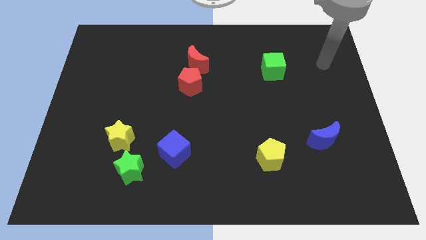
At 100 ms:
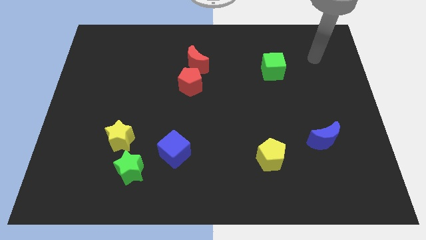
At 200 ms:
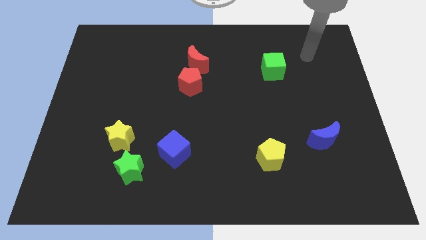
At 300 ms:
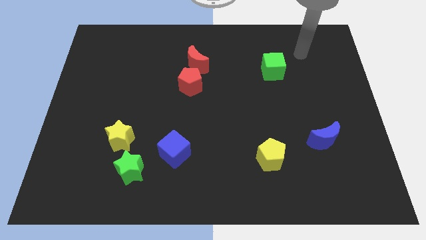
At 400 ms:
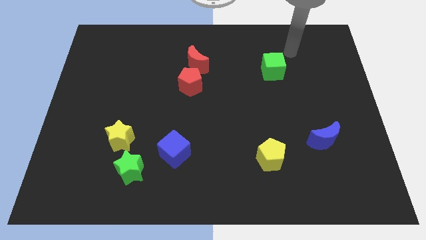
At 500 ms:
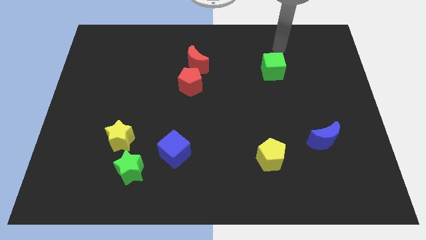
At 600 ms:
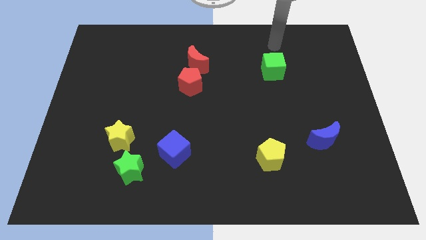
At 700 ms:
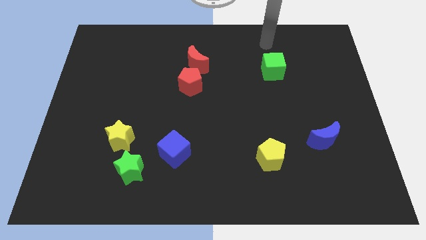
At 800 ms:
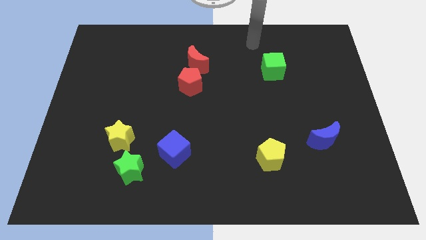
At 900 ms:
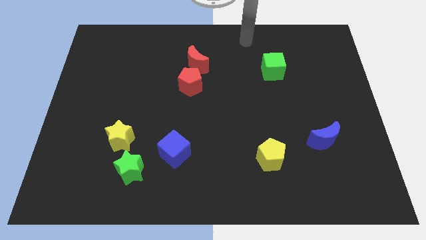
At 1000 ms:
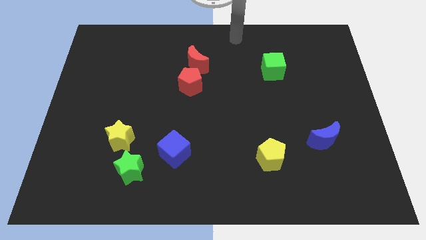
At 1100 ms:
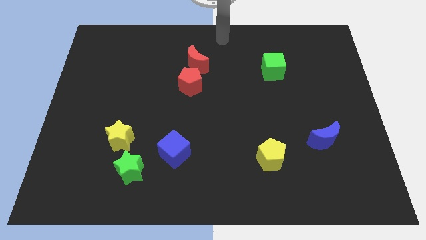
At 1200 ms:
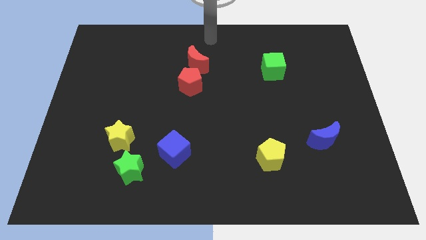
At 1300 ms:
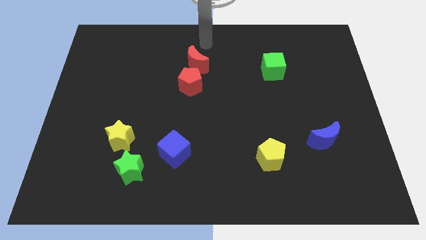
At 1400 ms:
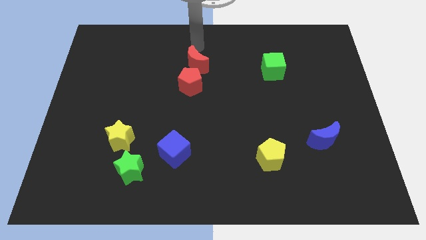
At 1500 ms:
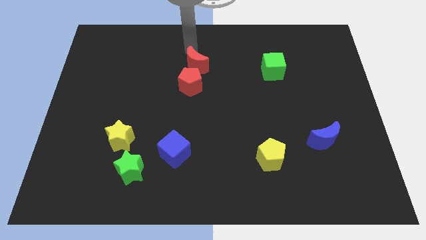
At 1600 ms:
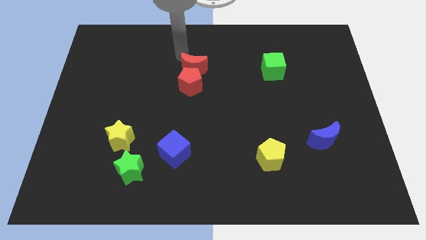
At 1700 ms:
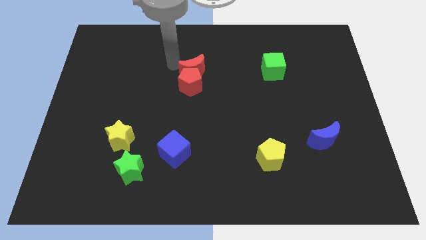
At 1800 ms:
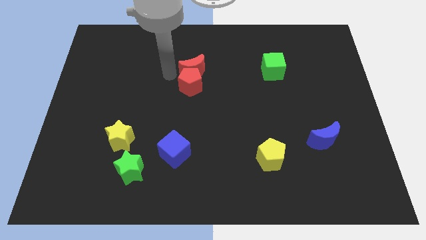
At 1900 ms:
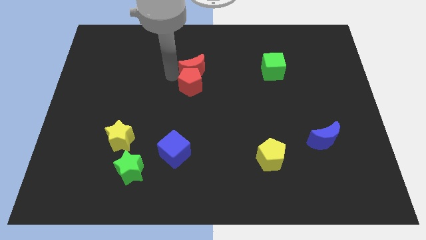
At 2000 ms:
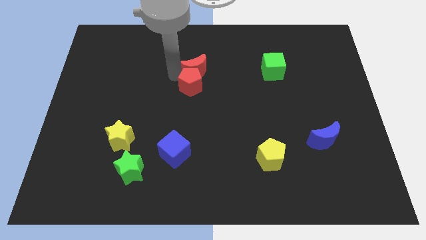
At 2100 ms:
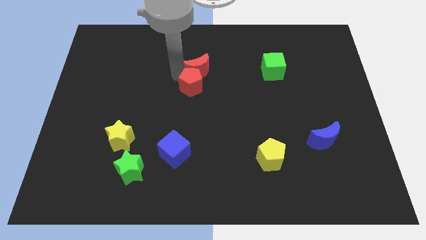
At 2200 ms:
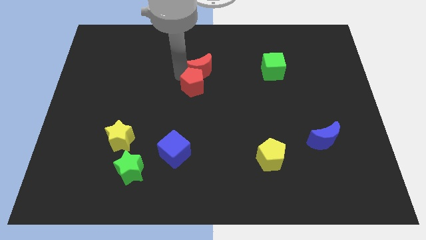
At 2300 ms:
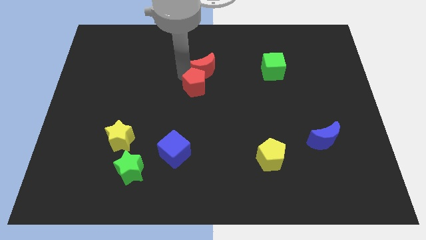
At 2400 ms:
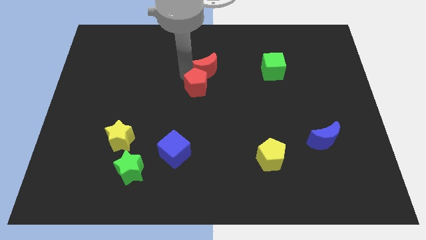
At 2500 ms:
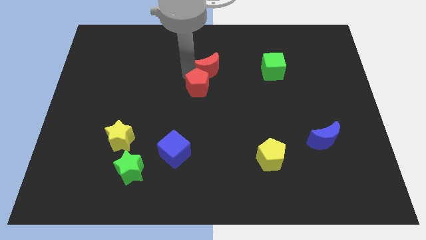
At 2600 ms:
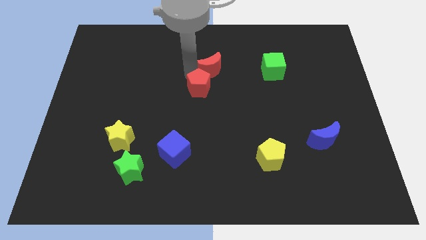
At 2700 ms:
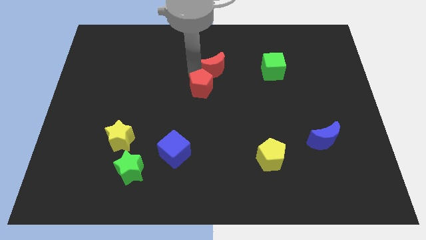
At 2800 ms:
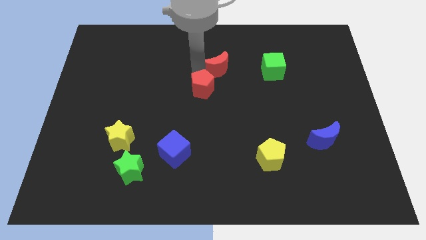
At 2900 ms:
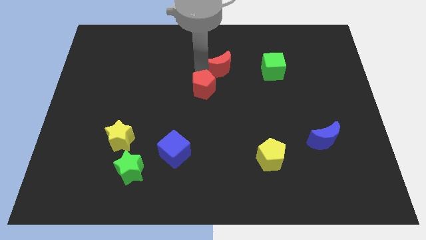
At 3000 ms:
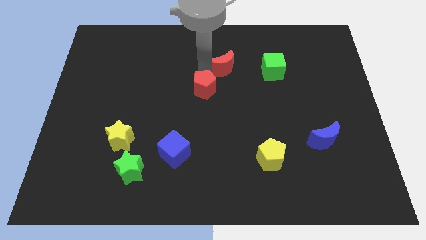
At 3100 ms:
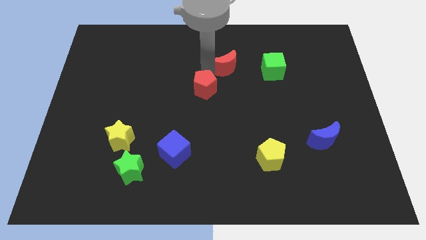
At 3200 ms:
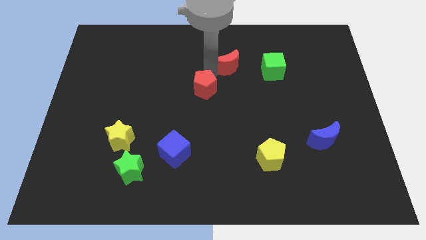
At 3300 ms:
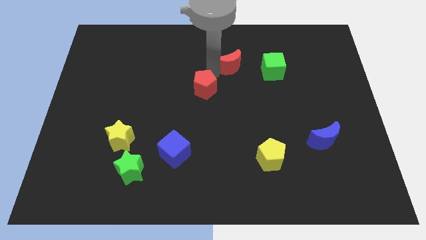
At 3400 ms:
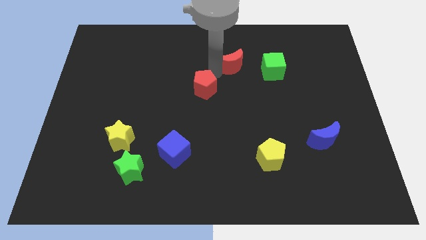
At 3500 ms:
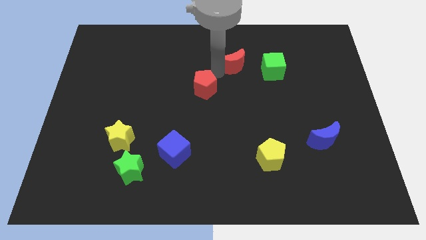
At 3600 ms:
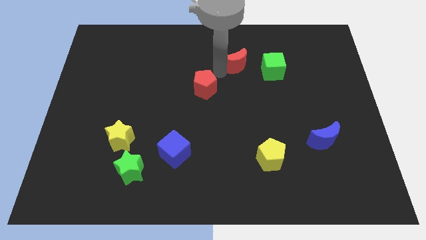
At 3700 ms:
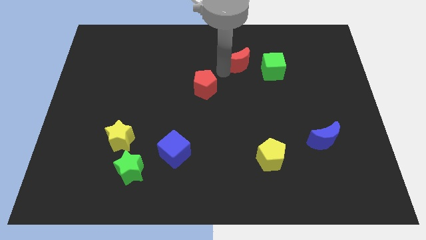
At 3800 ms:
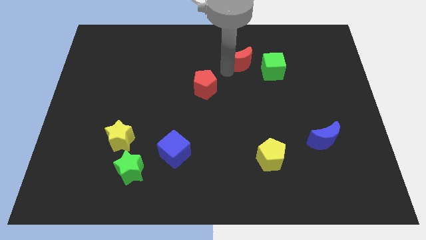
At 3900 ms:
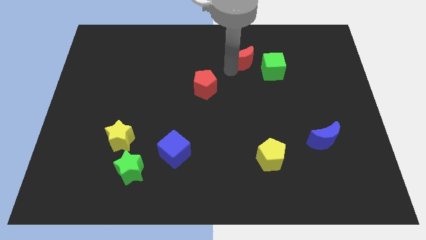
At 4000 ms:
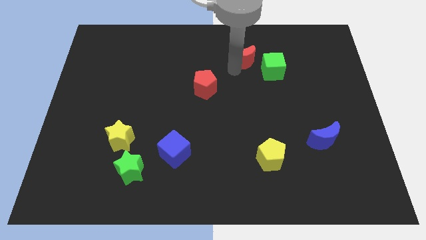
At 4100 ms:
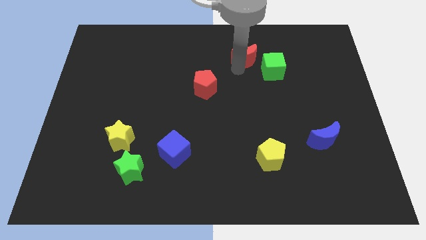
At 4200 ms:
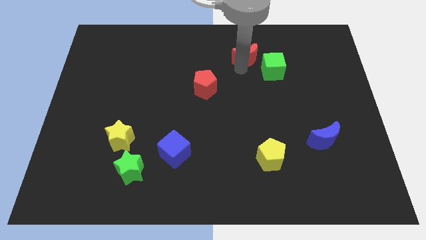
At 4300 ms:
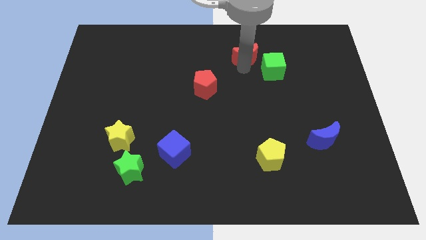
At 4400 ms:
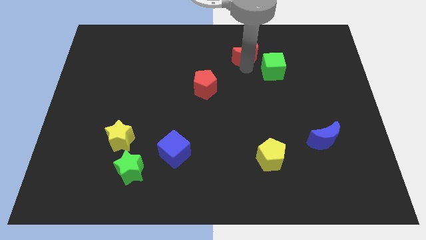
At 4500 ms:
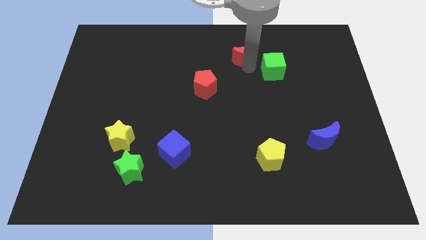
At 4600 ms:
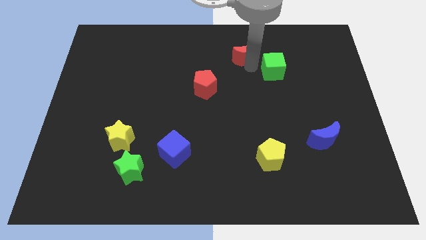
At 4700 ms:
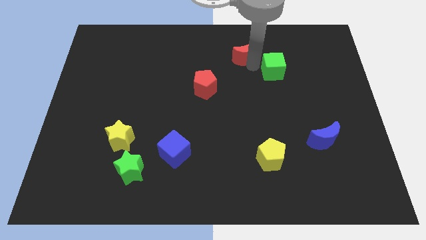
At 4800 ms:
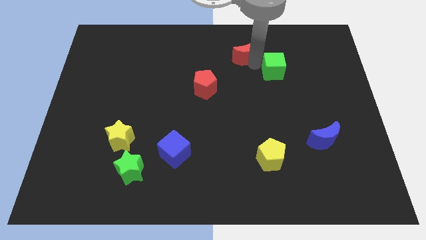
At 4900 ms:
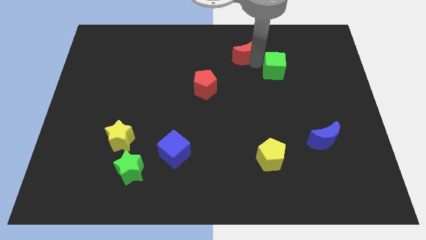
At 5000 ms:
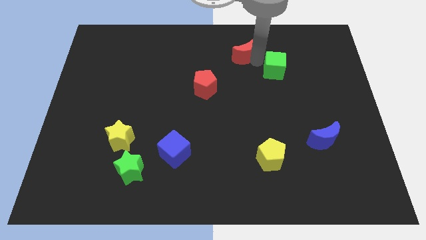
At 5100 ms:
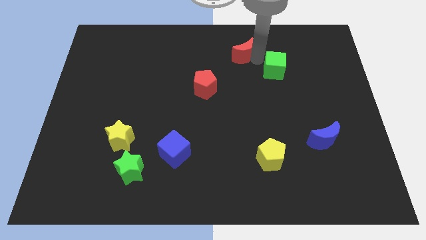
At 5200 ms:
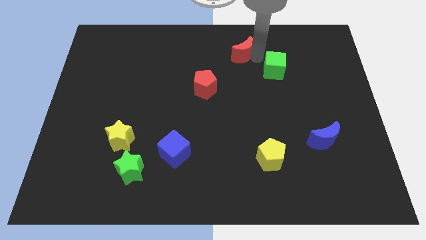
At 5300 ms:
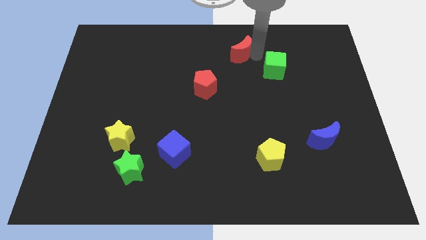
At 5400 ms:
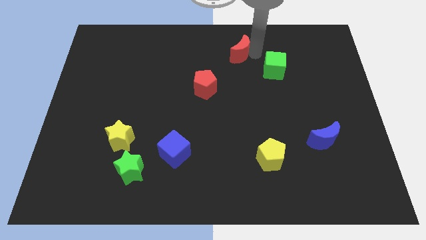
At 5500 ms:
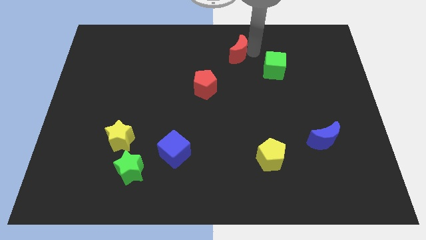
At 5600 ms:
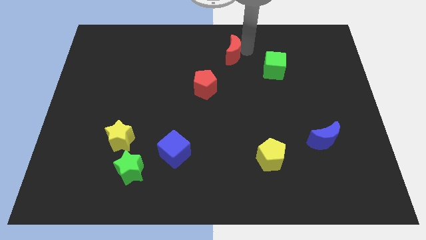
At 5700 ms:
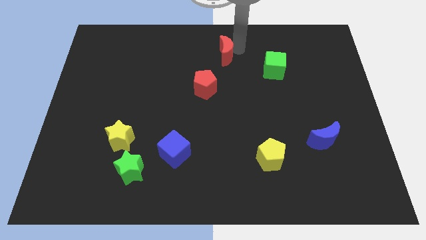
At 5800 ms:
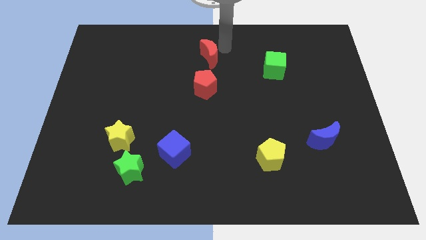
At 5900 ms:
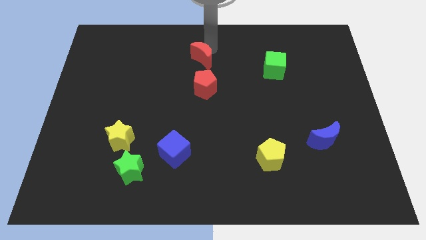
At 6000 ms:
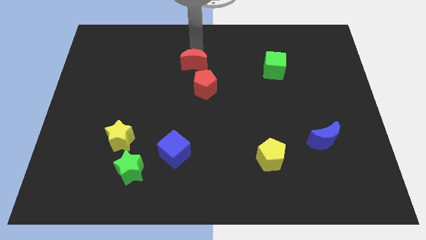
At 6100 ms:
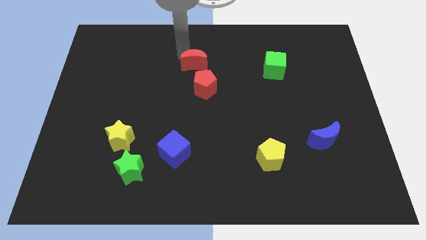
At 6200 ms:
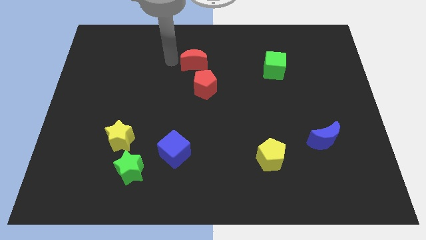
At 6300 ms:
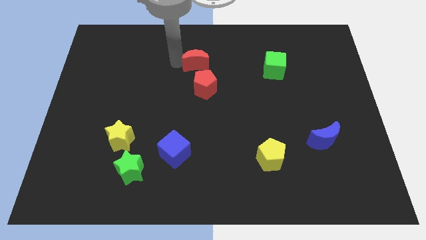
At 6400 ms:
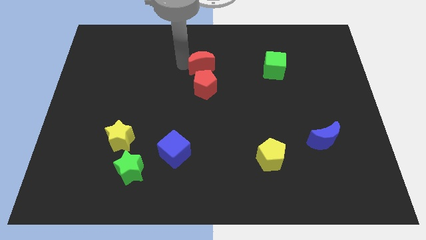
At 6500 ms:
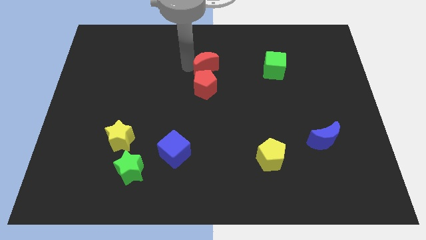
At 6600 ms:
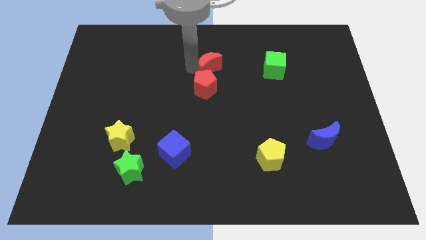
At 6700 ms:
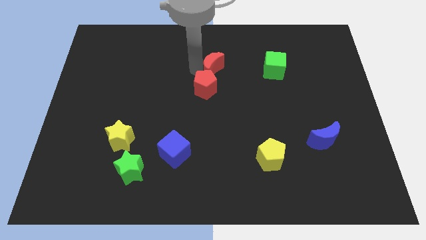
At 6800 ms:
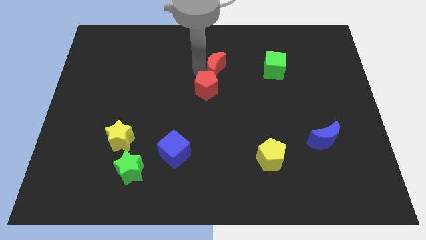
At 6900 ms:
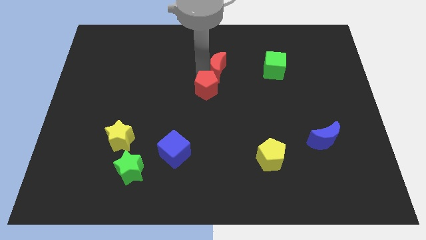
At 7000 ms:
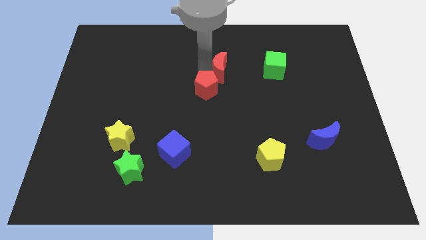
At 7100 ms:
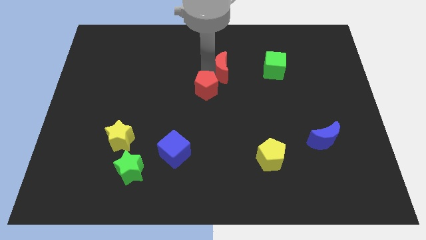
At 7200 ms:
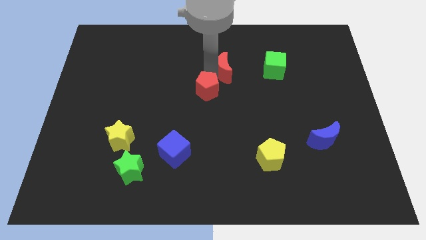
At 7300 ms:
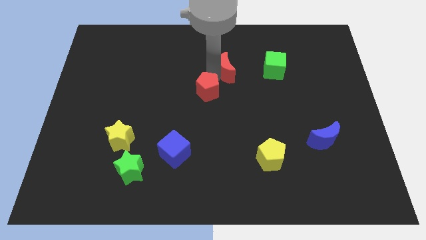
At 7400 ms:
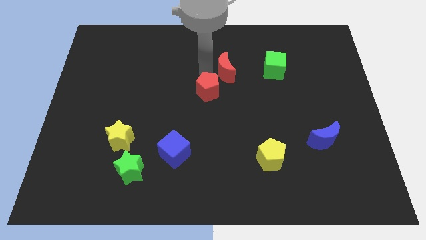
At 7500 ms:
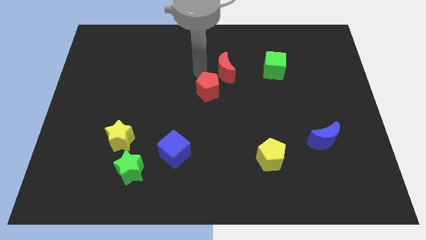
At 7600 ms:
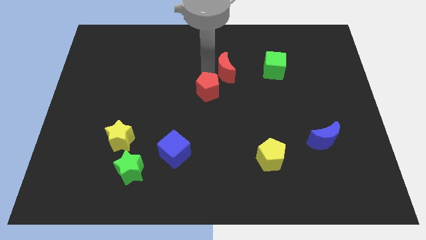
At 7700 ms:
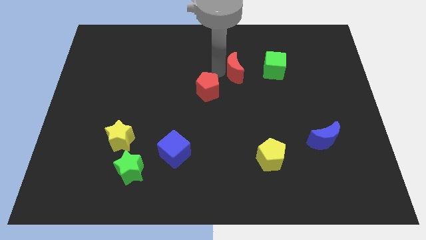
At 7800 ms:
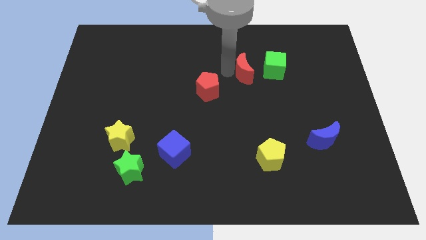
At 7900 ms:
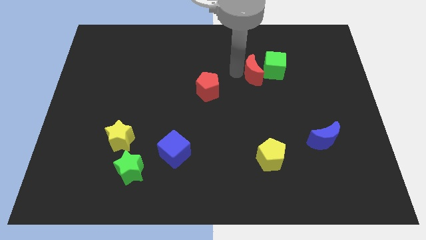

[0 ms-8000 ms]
put the red moon next to the green cube
